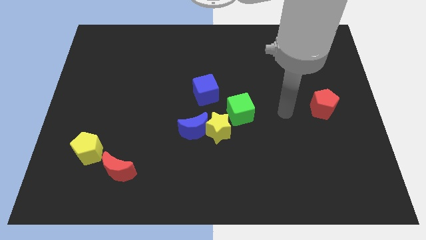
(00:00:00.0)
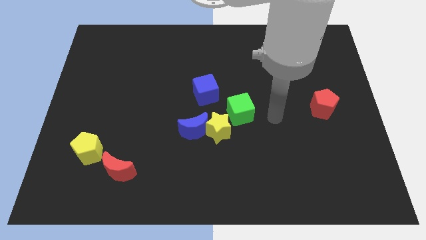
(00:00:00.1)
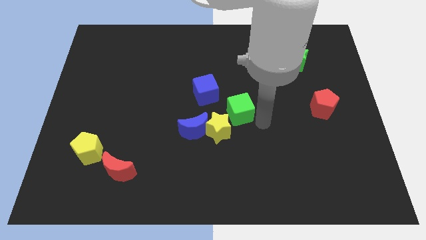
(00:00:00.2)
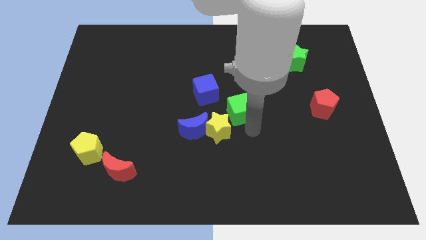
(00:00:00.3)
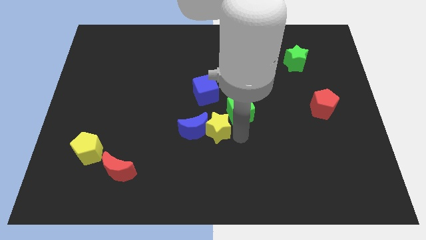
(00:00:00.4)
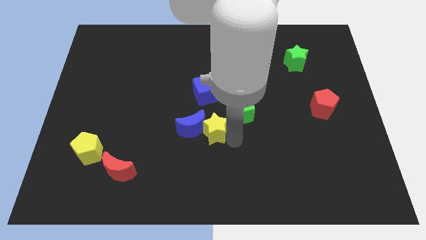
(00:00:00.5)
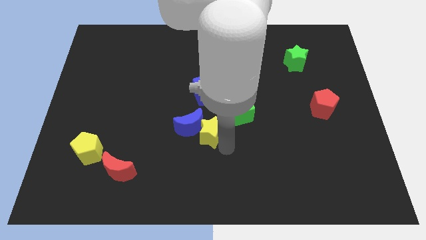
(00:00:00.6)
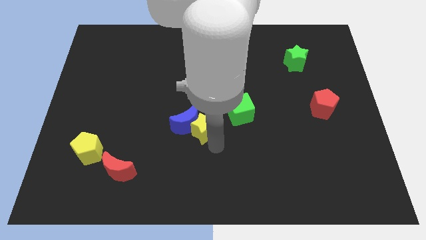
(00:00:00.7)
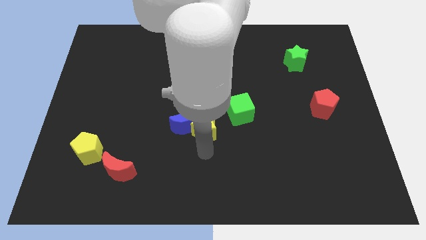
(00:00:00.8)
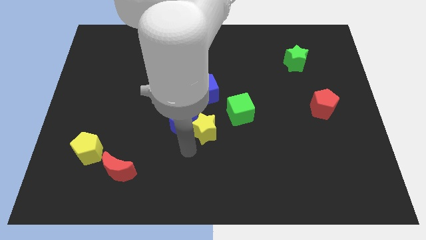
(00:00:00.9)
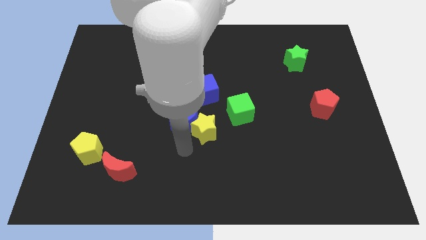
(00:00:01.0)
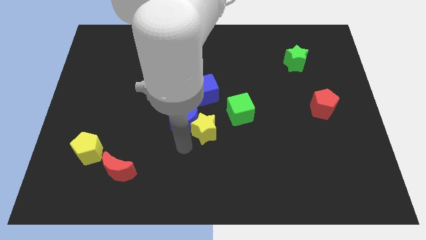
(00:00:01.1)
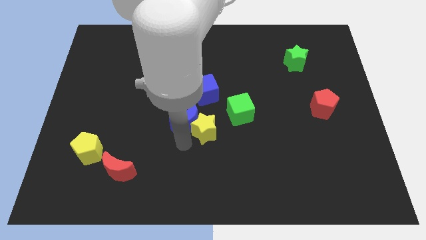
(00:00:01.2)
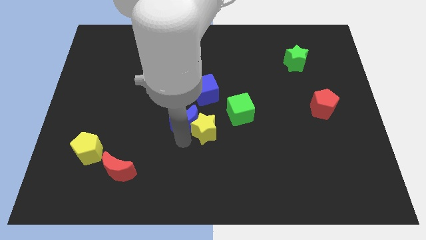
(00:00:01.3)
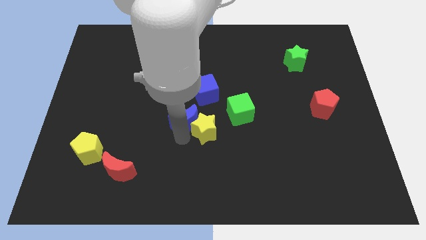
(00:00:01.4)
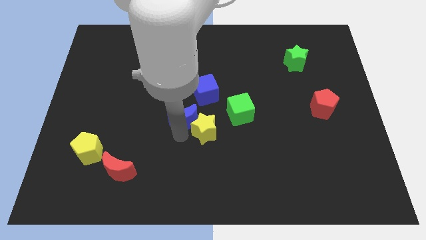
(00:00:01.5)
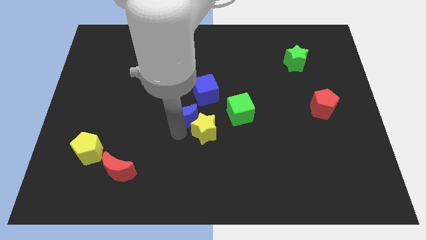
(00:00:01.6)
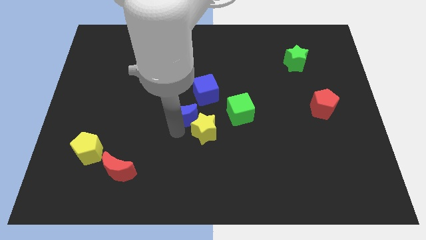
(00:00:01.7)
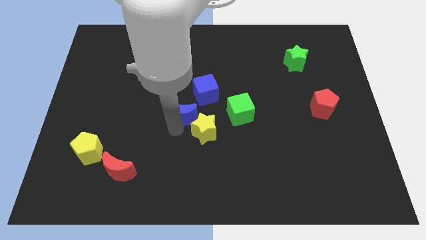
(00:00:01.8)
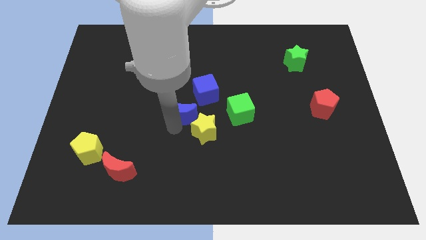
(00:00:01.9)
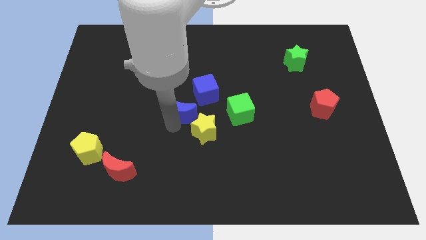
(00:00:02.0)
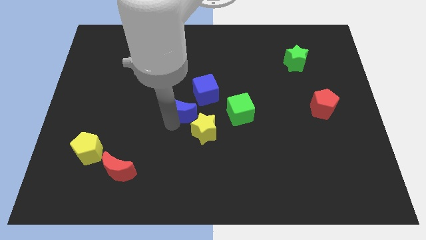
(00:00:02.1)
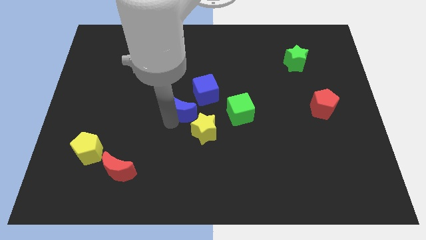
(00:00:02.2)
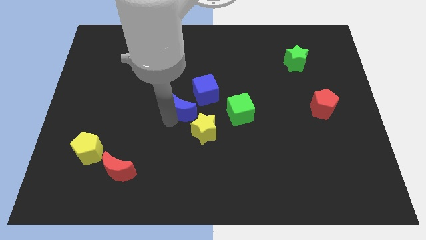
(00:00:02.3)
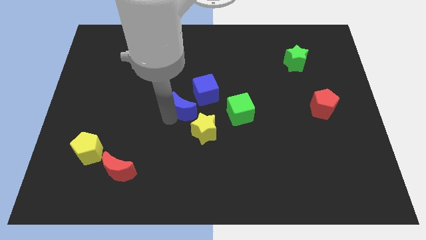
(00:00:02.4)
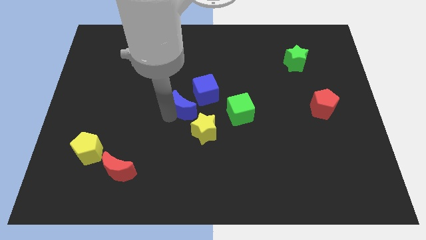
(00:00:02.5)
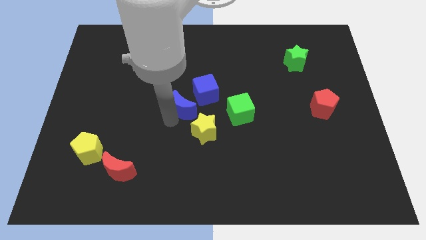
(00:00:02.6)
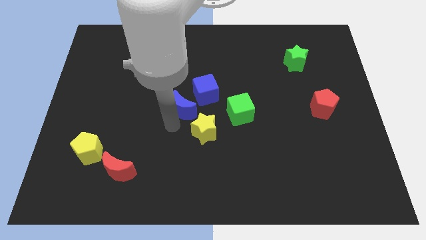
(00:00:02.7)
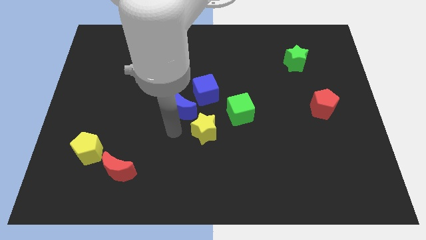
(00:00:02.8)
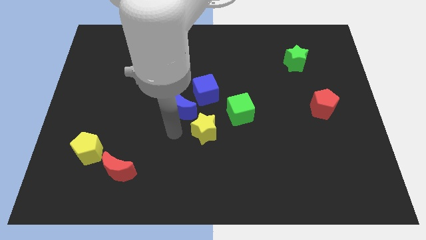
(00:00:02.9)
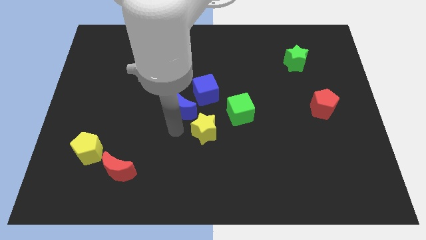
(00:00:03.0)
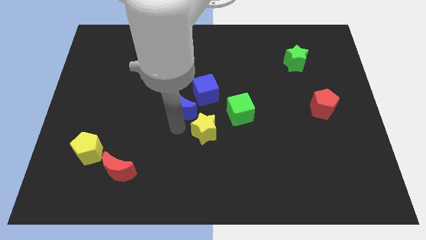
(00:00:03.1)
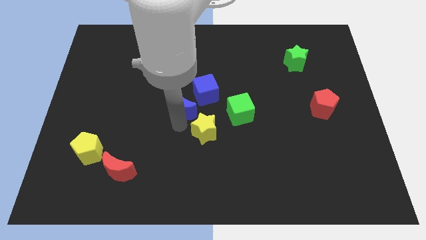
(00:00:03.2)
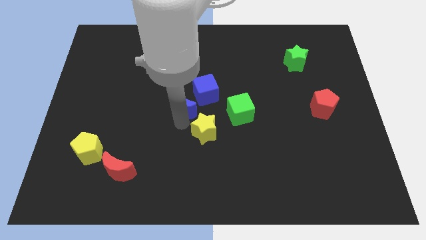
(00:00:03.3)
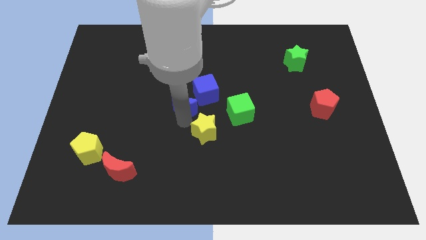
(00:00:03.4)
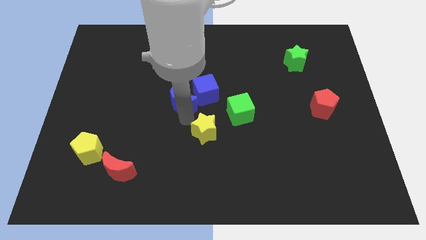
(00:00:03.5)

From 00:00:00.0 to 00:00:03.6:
move the blue moon a little bit upwards

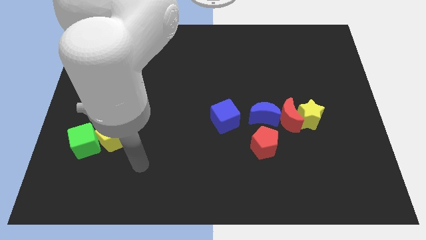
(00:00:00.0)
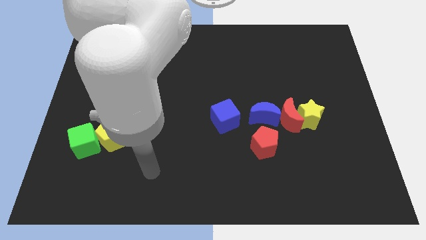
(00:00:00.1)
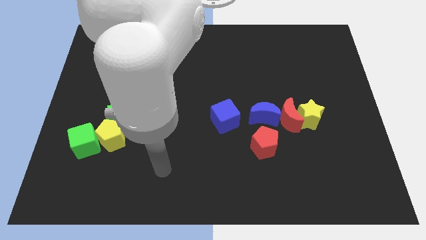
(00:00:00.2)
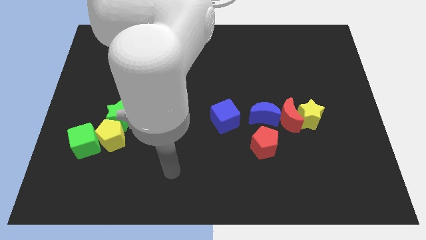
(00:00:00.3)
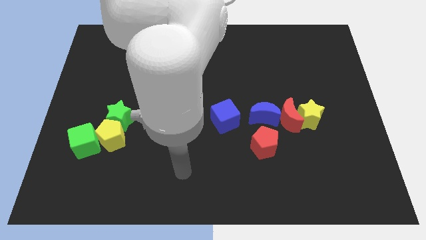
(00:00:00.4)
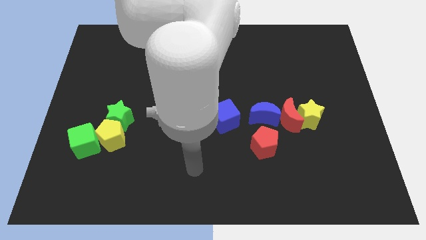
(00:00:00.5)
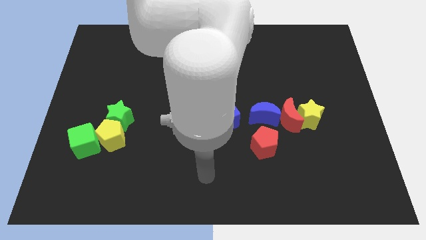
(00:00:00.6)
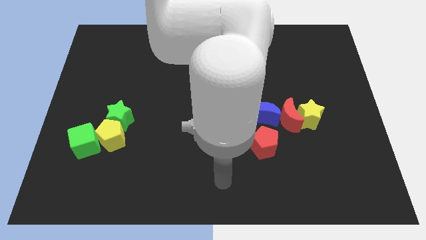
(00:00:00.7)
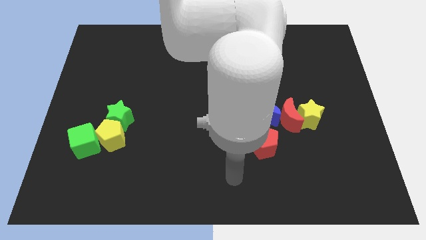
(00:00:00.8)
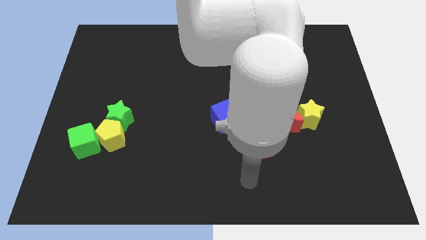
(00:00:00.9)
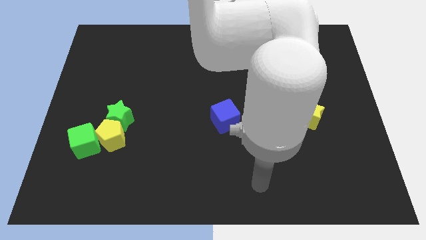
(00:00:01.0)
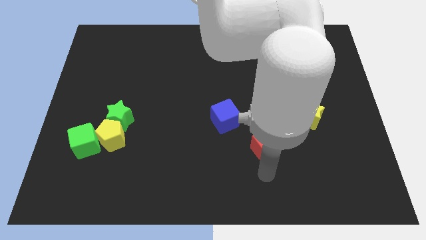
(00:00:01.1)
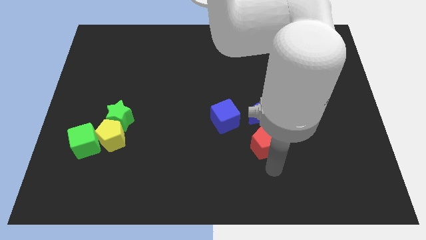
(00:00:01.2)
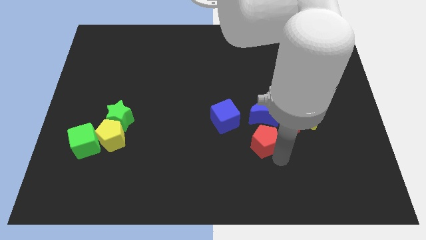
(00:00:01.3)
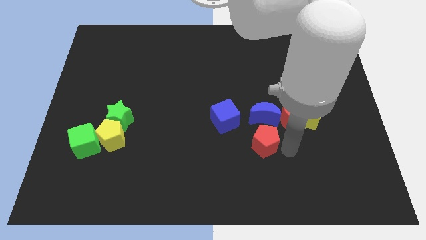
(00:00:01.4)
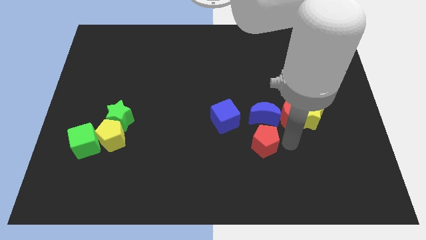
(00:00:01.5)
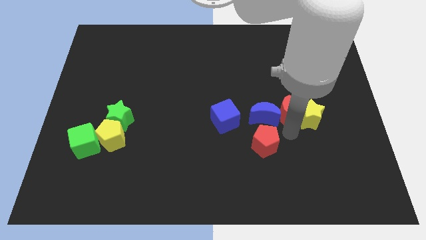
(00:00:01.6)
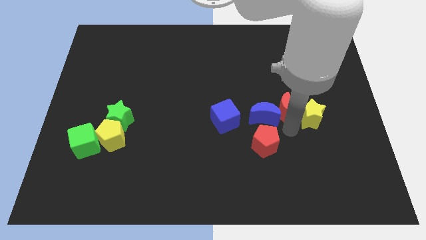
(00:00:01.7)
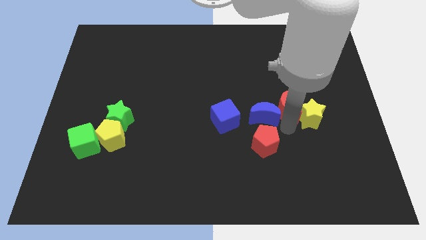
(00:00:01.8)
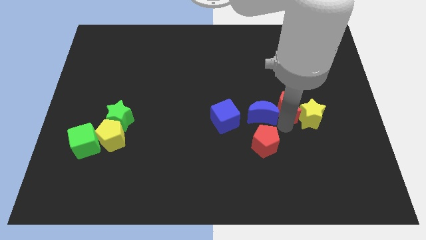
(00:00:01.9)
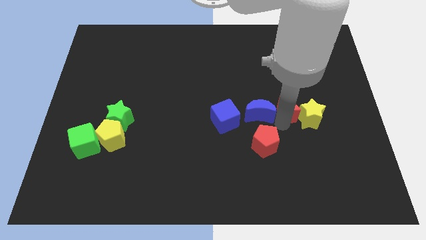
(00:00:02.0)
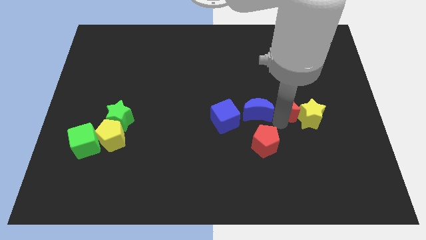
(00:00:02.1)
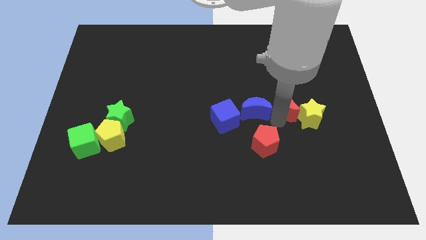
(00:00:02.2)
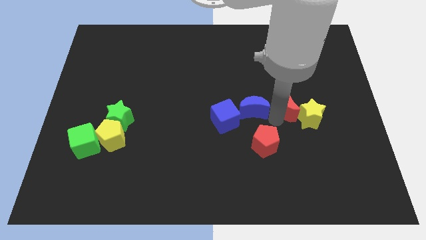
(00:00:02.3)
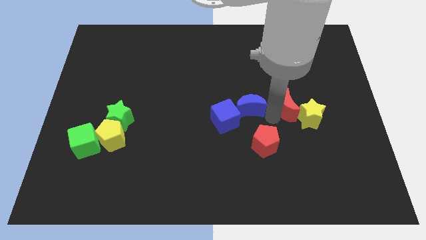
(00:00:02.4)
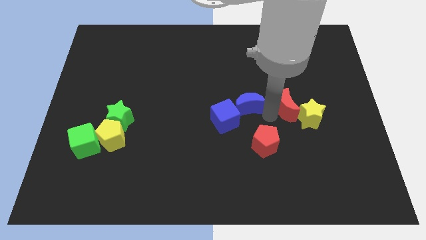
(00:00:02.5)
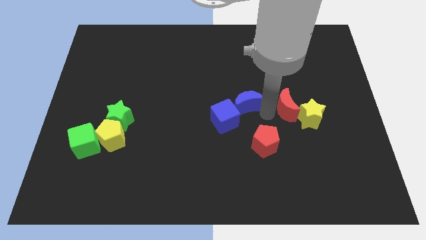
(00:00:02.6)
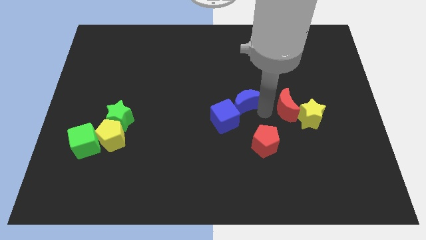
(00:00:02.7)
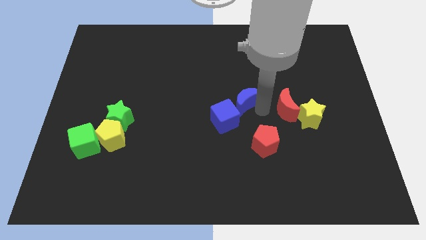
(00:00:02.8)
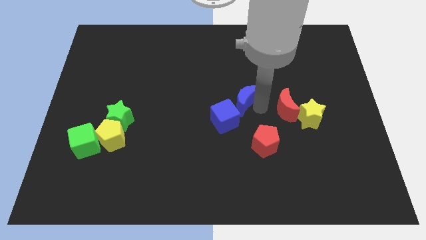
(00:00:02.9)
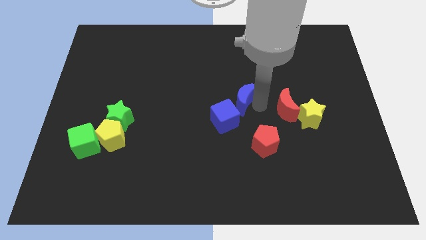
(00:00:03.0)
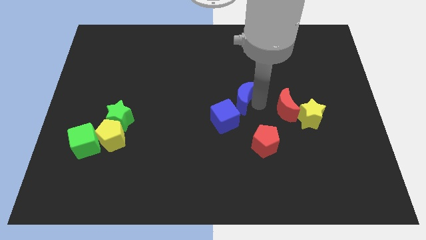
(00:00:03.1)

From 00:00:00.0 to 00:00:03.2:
push the blue moon up and left a little bit

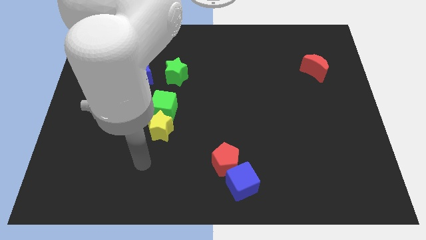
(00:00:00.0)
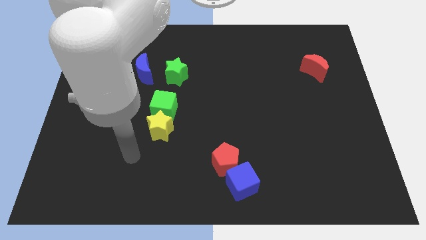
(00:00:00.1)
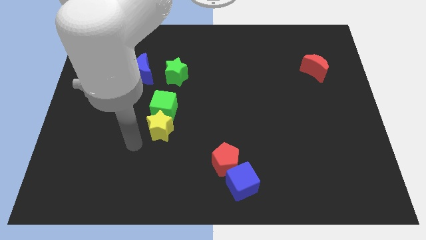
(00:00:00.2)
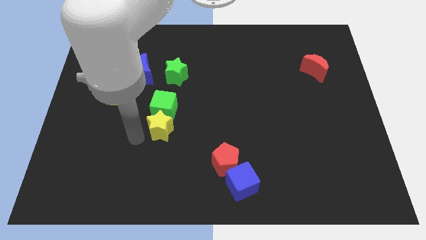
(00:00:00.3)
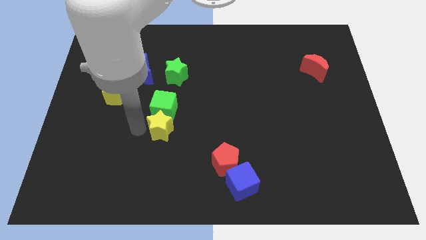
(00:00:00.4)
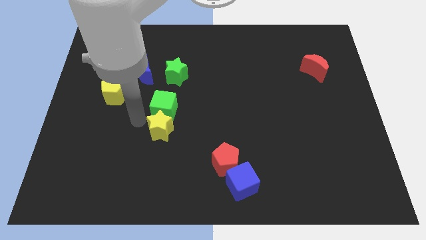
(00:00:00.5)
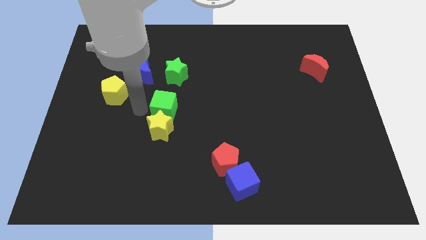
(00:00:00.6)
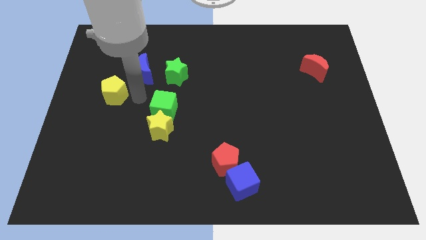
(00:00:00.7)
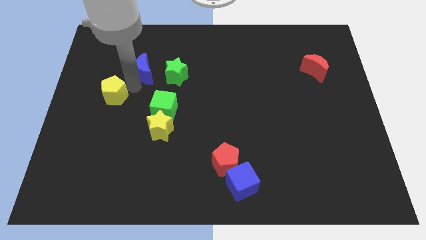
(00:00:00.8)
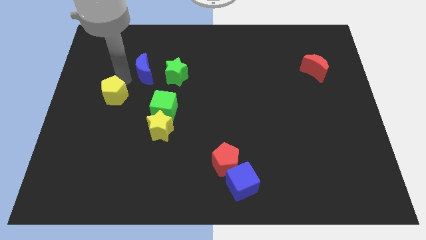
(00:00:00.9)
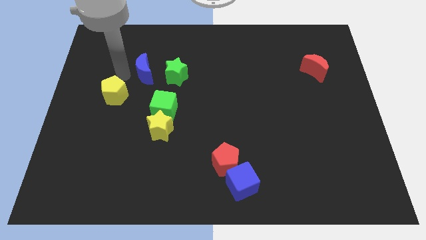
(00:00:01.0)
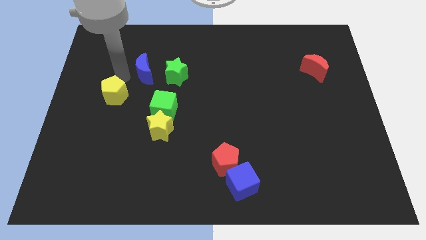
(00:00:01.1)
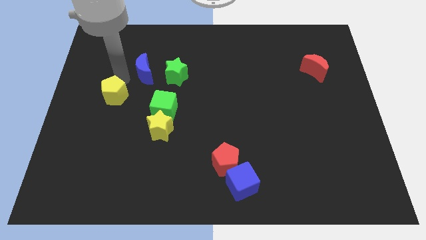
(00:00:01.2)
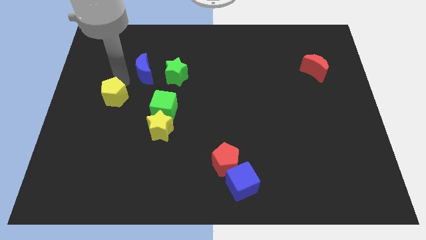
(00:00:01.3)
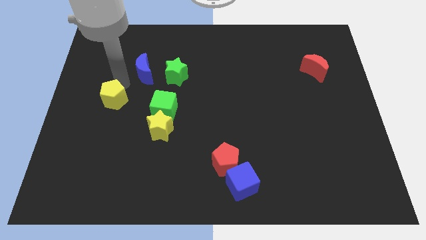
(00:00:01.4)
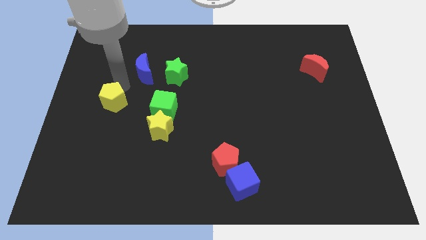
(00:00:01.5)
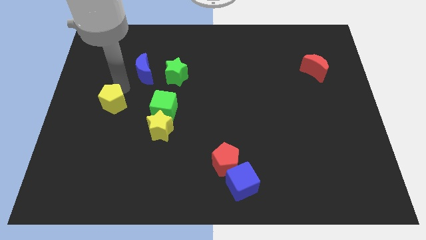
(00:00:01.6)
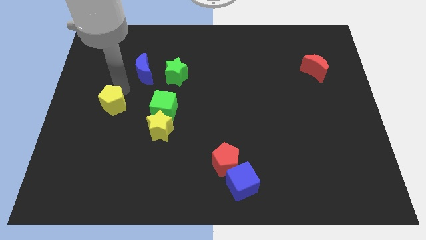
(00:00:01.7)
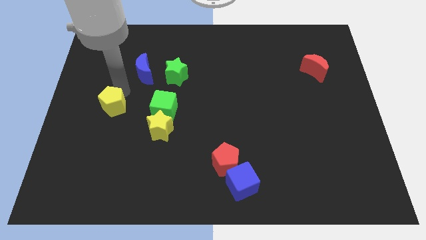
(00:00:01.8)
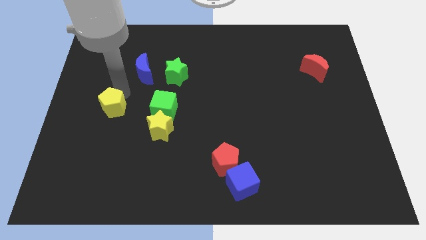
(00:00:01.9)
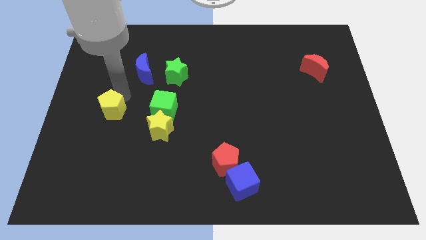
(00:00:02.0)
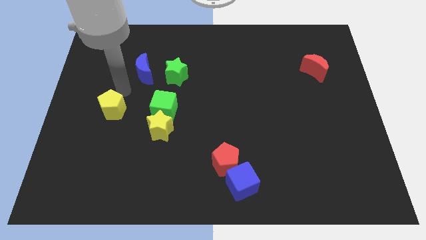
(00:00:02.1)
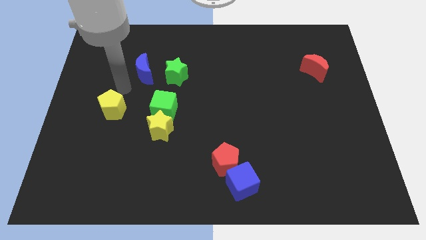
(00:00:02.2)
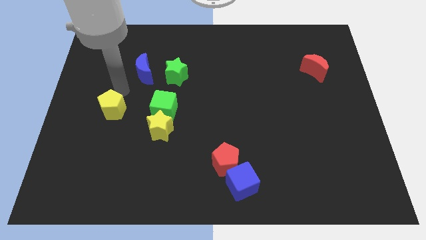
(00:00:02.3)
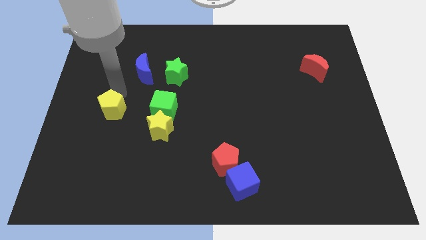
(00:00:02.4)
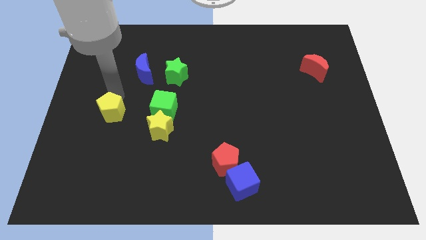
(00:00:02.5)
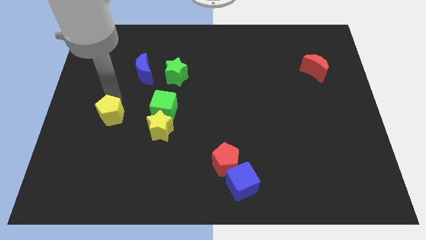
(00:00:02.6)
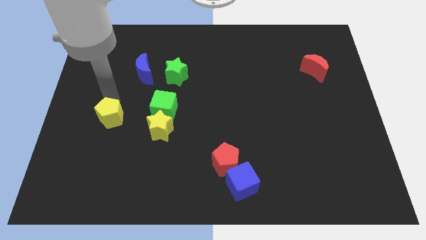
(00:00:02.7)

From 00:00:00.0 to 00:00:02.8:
move the yellow pentagon a little down
